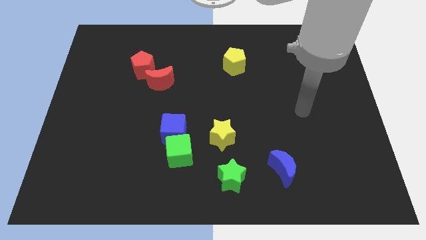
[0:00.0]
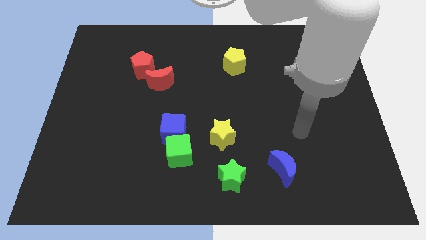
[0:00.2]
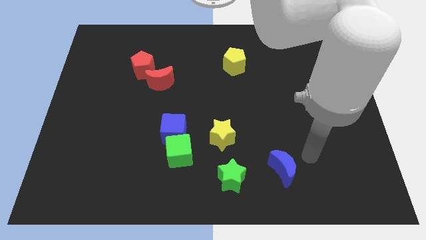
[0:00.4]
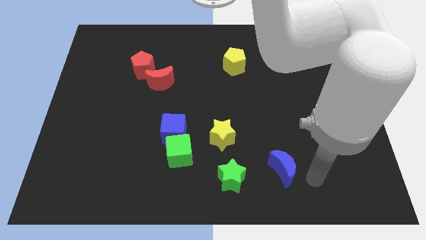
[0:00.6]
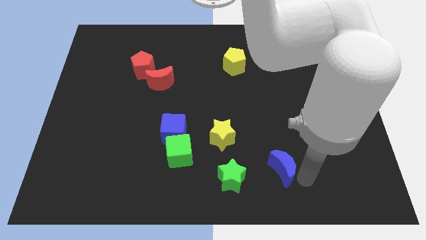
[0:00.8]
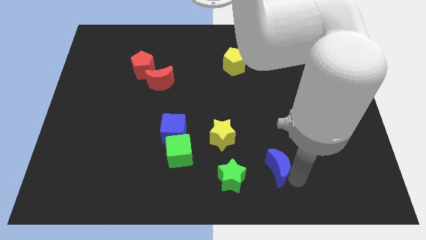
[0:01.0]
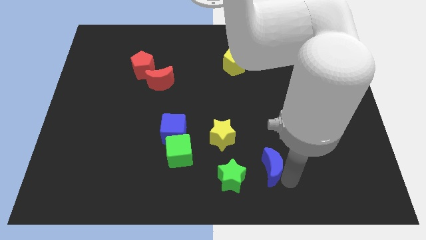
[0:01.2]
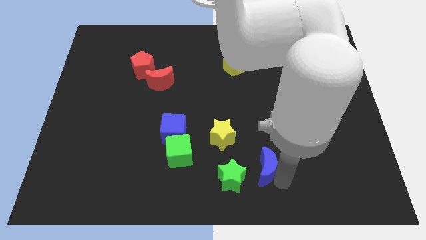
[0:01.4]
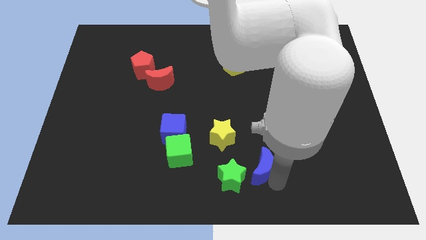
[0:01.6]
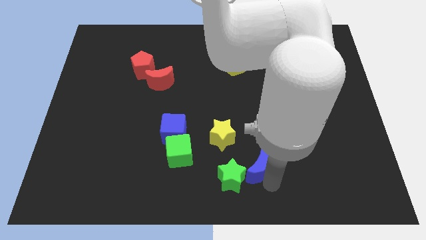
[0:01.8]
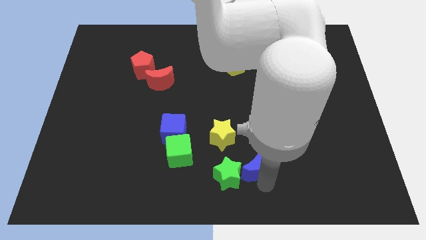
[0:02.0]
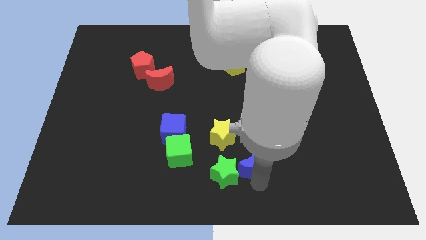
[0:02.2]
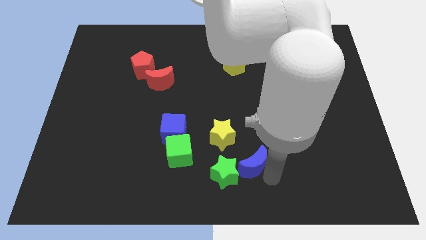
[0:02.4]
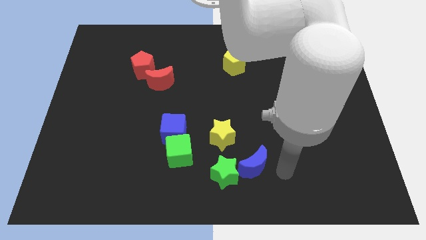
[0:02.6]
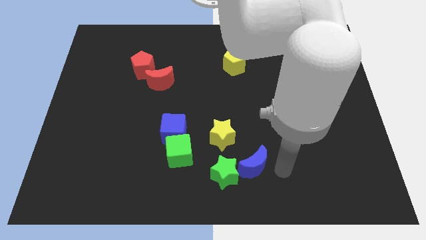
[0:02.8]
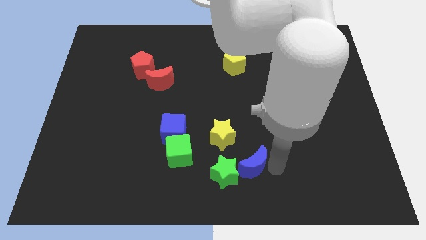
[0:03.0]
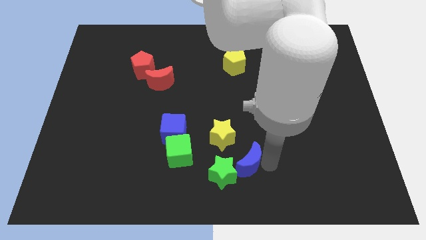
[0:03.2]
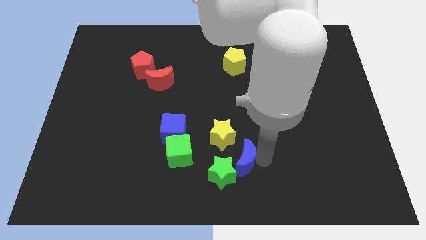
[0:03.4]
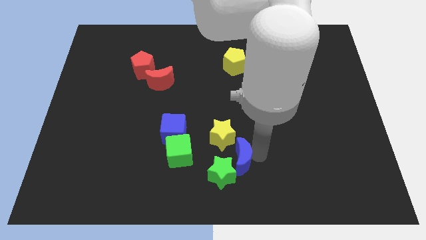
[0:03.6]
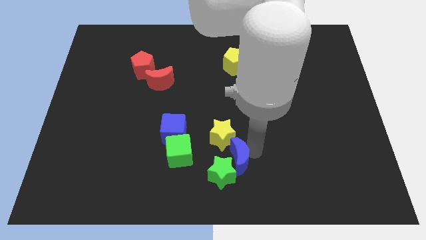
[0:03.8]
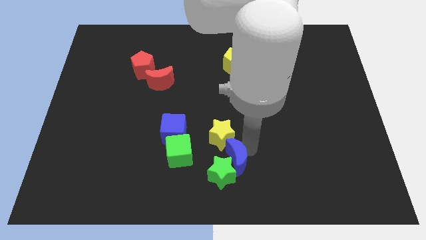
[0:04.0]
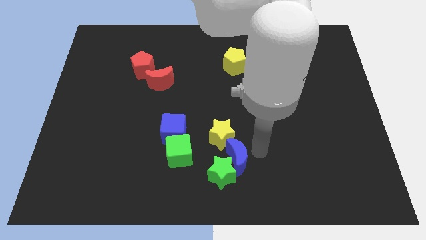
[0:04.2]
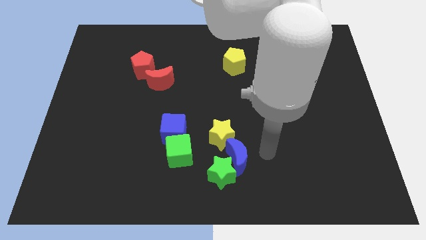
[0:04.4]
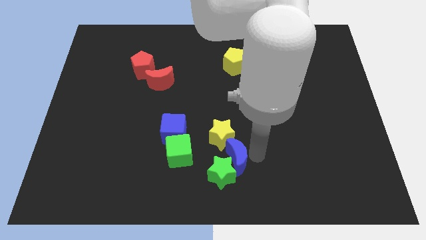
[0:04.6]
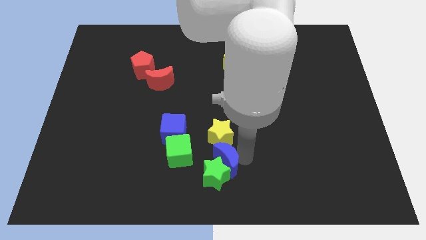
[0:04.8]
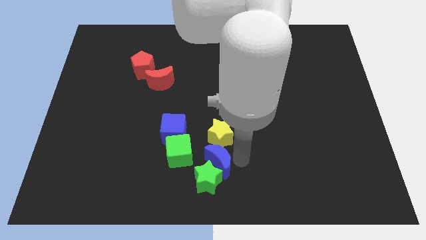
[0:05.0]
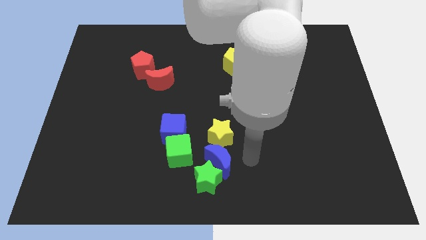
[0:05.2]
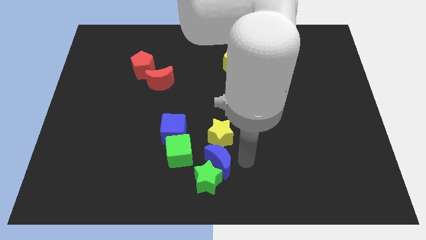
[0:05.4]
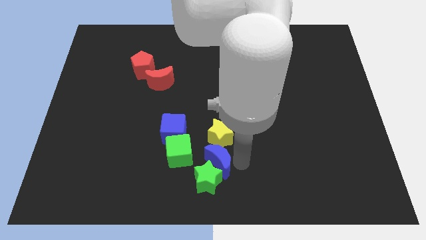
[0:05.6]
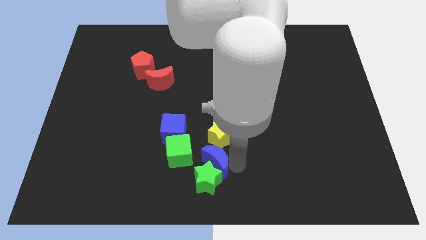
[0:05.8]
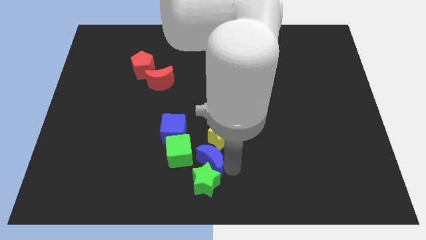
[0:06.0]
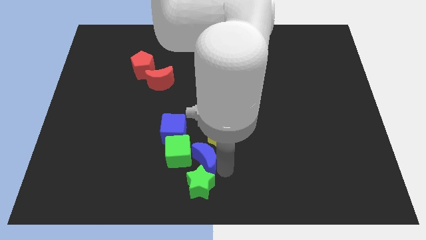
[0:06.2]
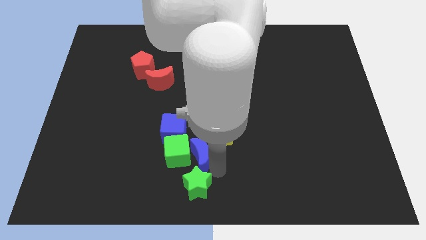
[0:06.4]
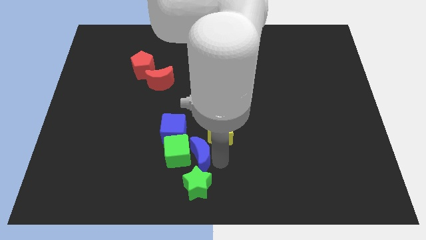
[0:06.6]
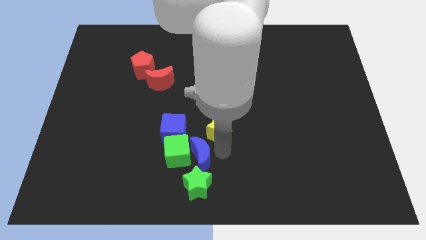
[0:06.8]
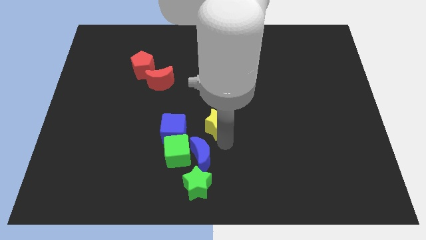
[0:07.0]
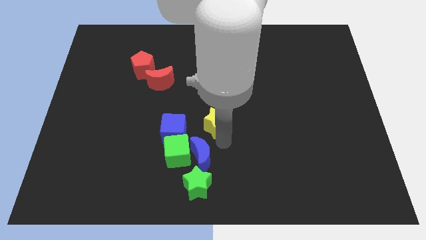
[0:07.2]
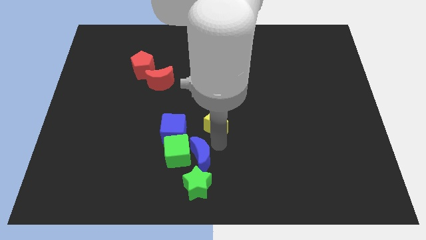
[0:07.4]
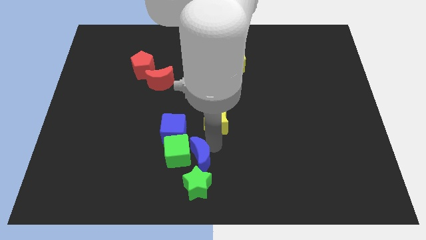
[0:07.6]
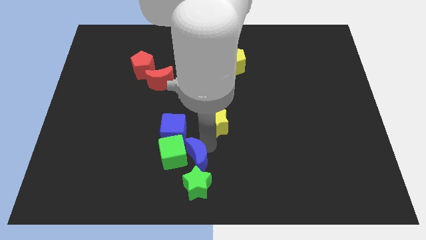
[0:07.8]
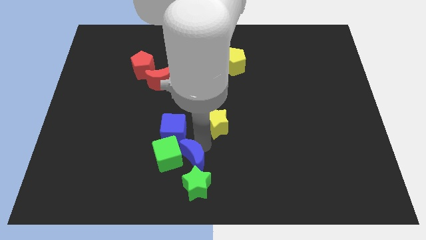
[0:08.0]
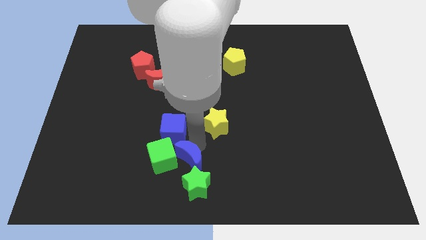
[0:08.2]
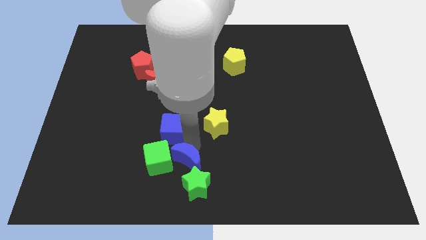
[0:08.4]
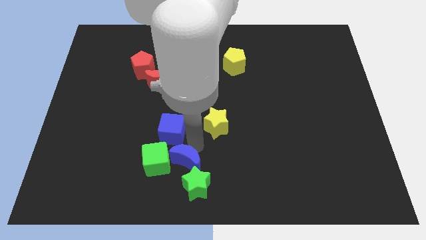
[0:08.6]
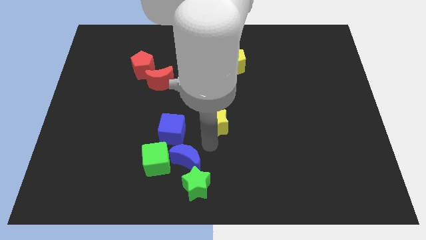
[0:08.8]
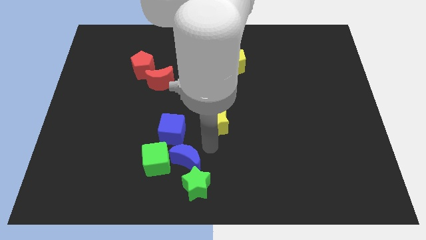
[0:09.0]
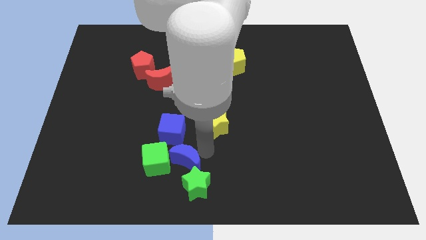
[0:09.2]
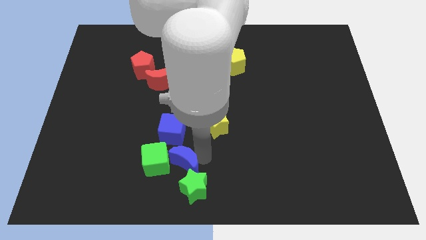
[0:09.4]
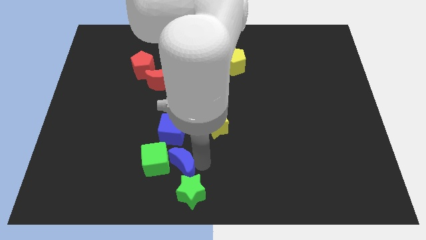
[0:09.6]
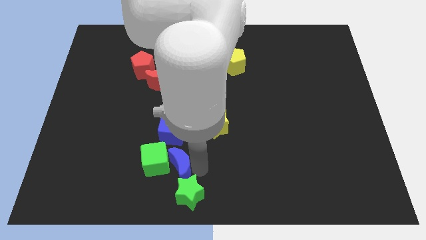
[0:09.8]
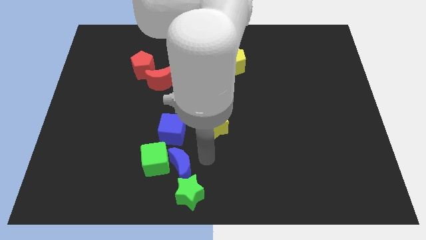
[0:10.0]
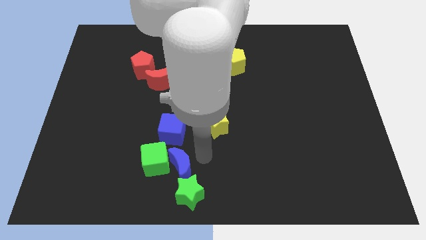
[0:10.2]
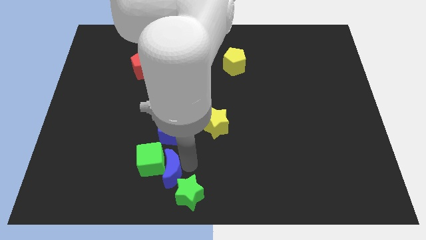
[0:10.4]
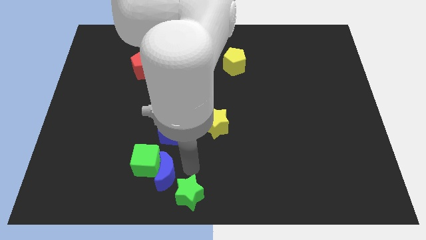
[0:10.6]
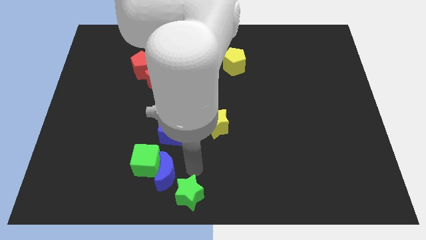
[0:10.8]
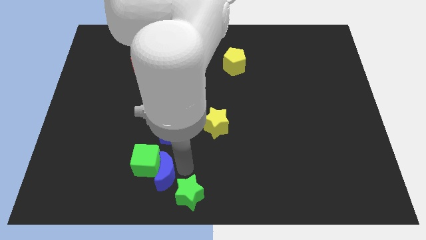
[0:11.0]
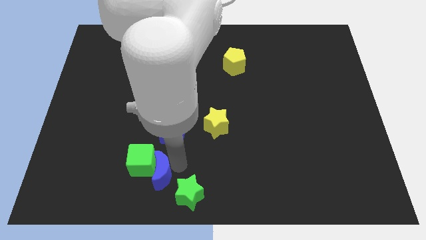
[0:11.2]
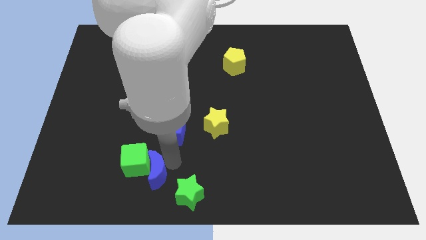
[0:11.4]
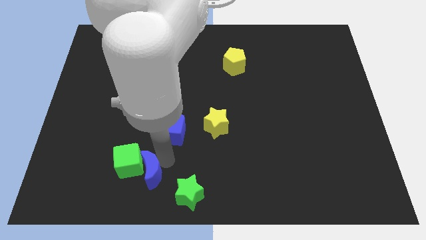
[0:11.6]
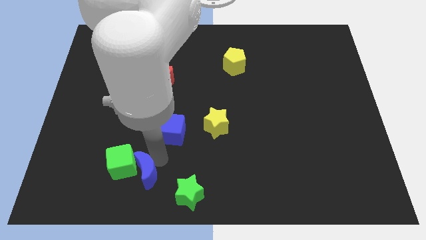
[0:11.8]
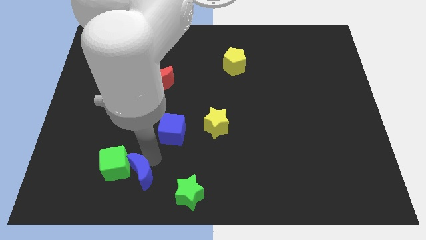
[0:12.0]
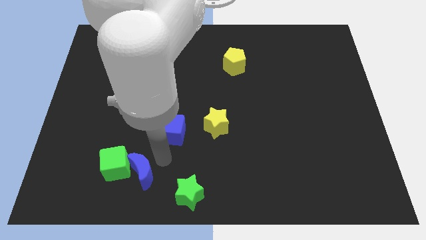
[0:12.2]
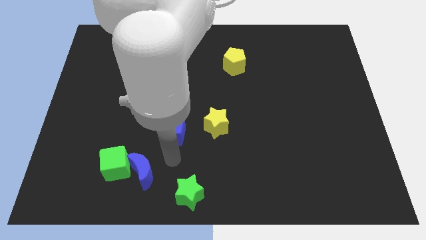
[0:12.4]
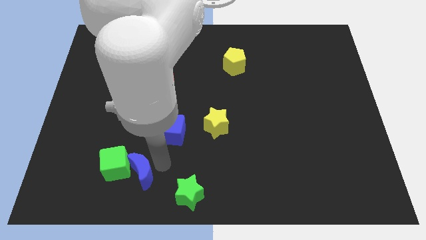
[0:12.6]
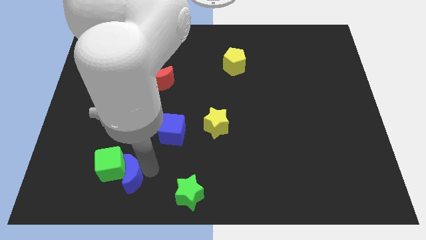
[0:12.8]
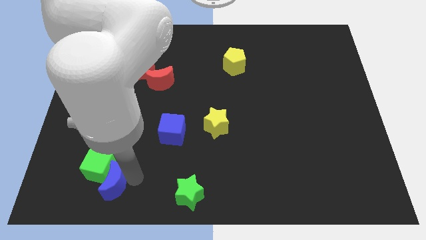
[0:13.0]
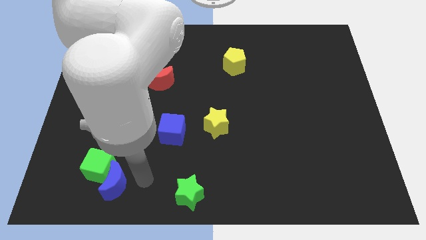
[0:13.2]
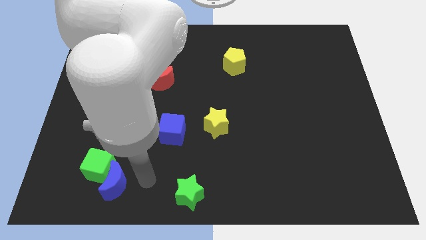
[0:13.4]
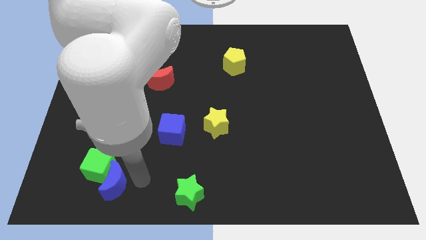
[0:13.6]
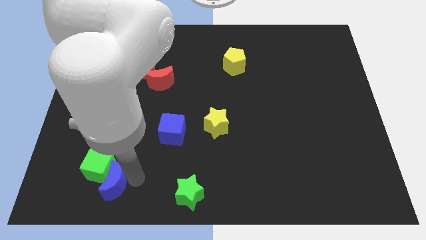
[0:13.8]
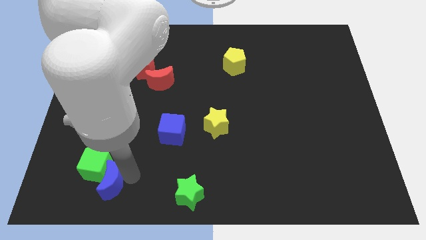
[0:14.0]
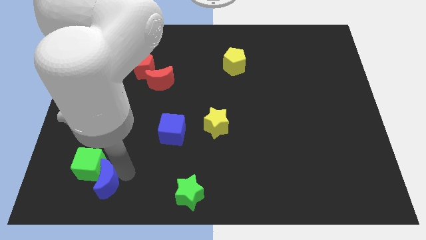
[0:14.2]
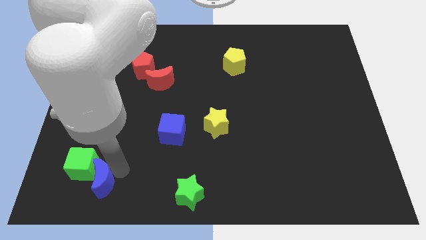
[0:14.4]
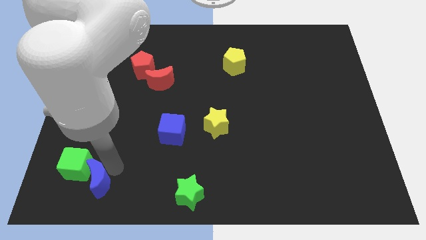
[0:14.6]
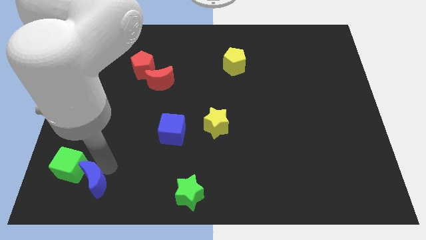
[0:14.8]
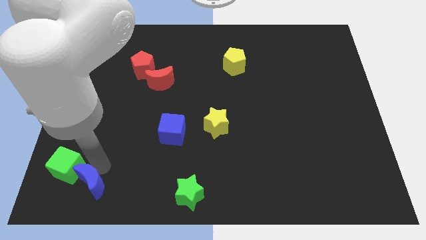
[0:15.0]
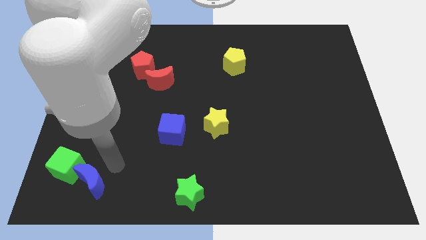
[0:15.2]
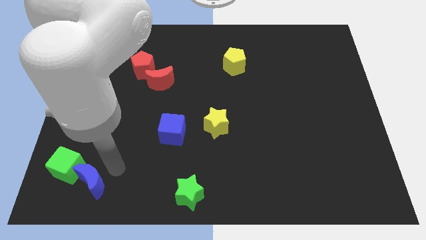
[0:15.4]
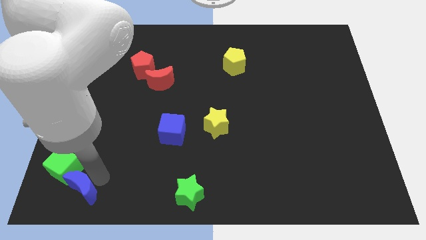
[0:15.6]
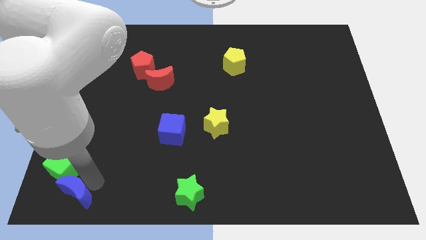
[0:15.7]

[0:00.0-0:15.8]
put the blue moon to the lower left corner
